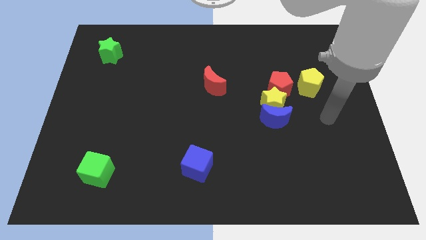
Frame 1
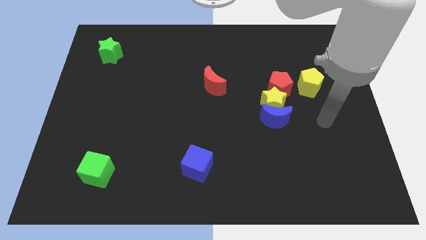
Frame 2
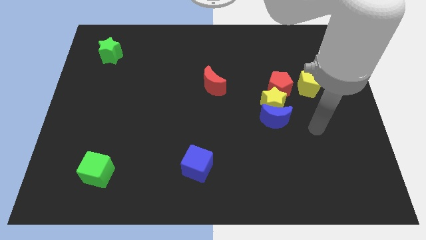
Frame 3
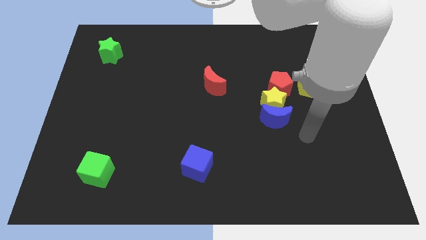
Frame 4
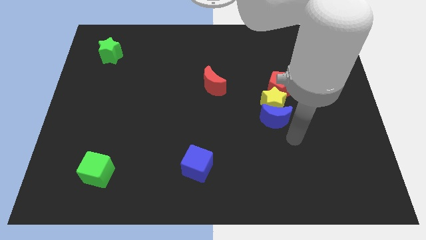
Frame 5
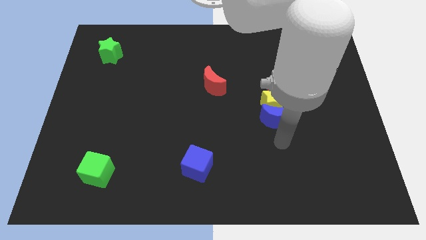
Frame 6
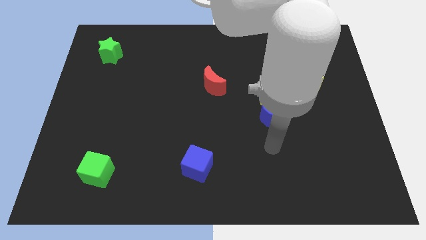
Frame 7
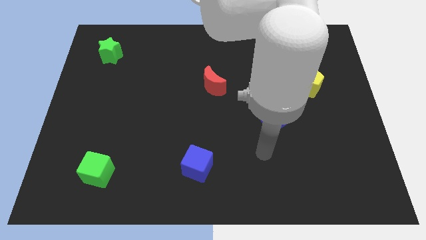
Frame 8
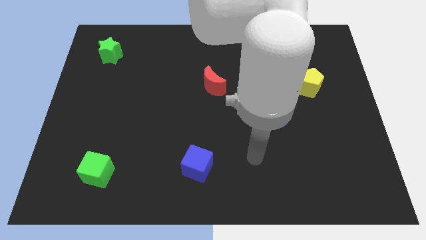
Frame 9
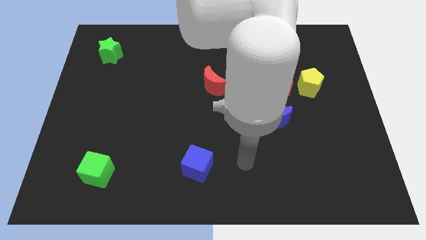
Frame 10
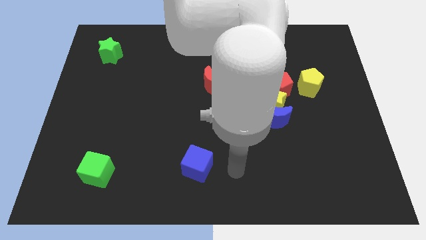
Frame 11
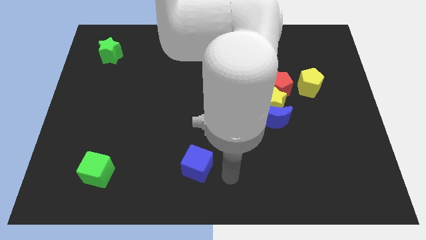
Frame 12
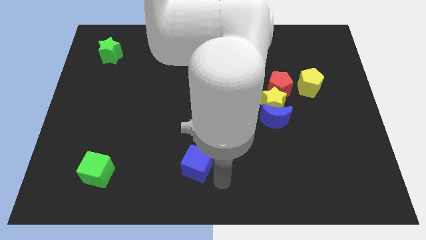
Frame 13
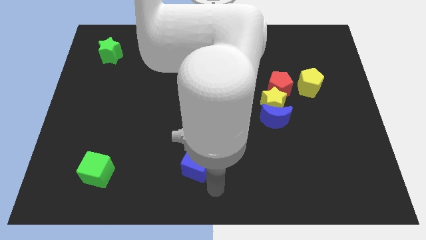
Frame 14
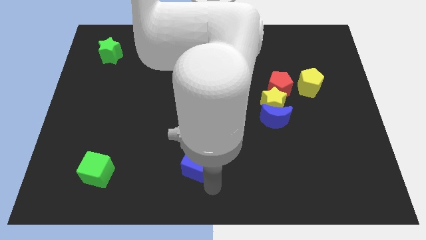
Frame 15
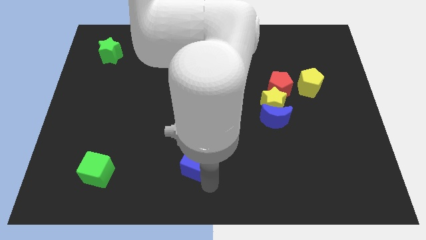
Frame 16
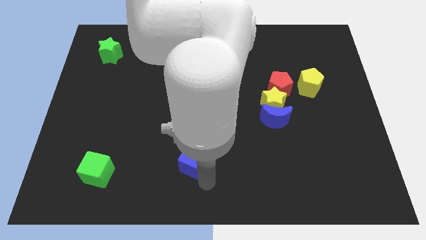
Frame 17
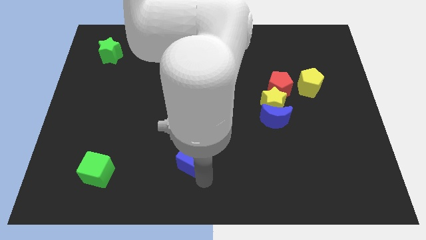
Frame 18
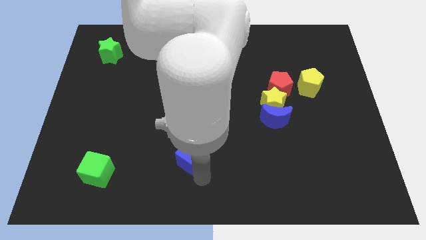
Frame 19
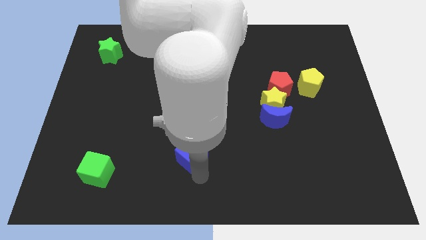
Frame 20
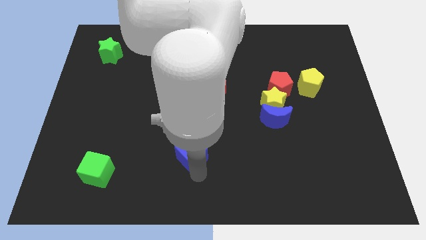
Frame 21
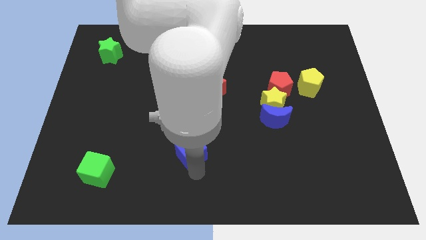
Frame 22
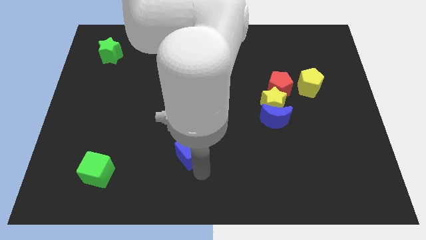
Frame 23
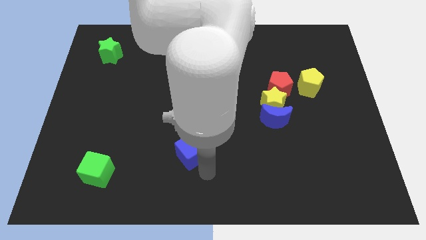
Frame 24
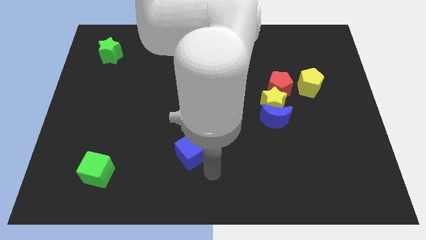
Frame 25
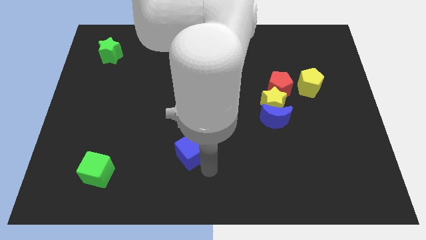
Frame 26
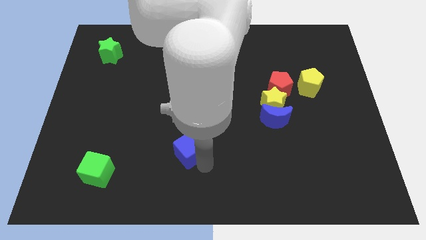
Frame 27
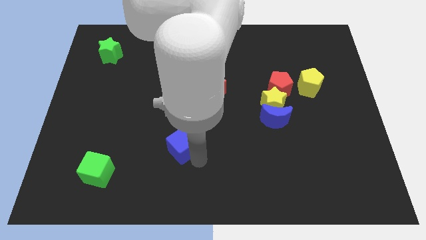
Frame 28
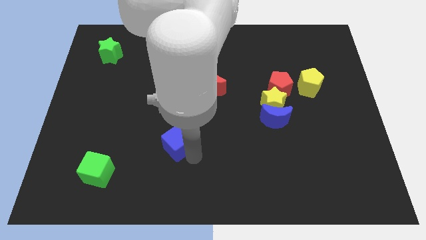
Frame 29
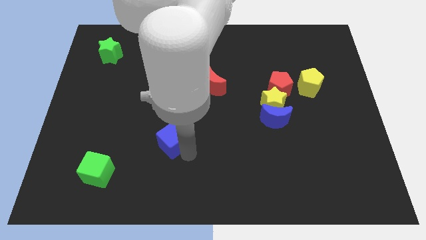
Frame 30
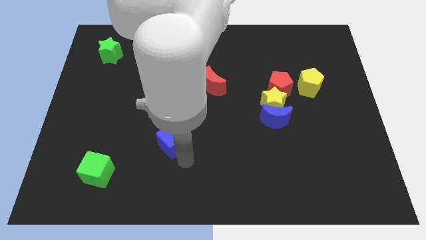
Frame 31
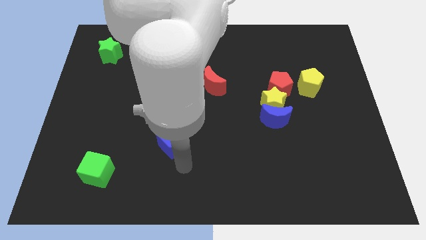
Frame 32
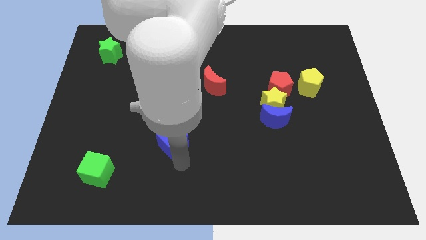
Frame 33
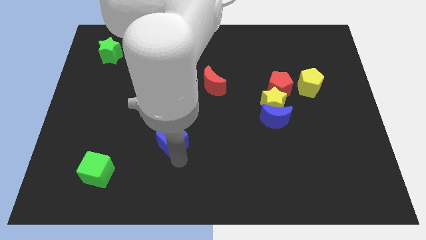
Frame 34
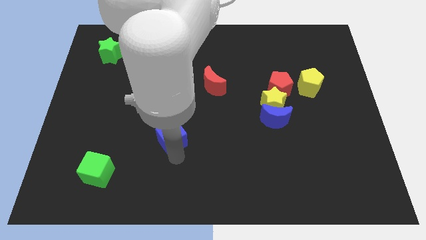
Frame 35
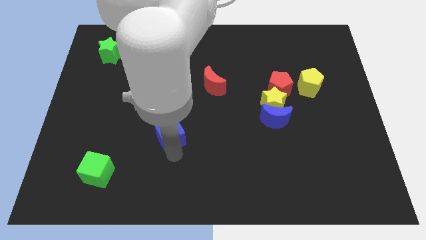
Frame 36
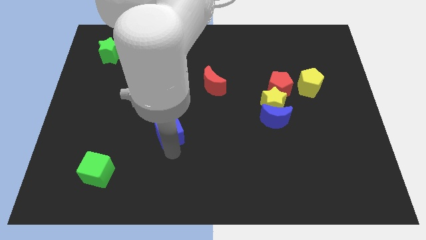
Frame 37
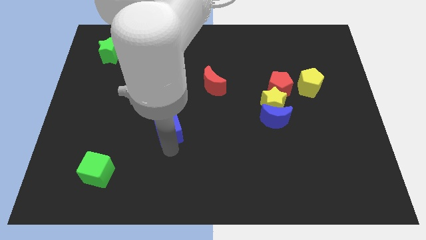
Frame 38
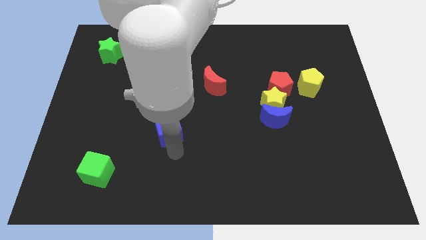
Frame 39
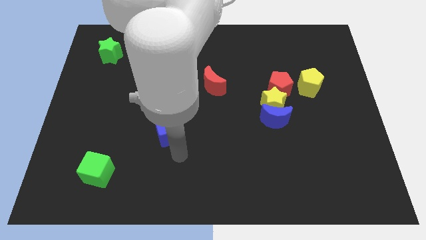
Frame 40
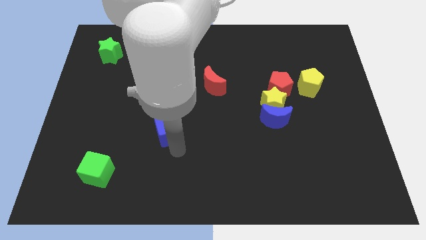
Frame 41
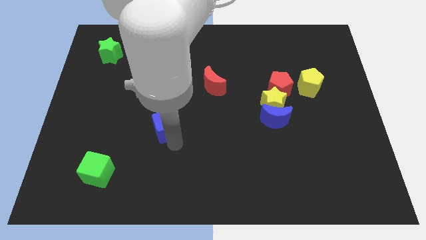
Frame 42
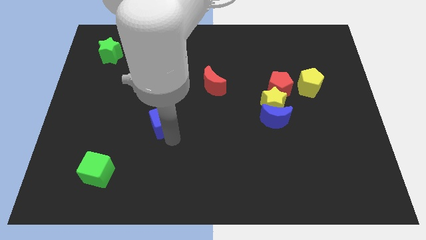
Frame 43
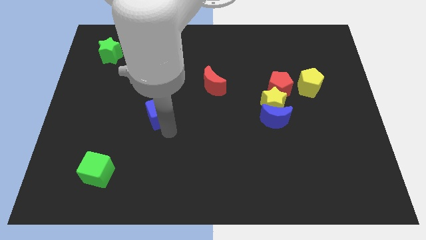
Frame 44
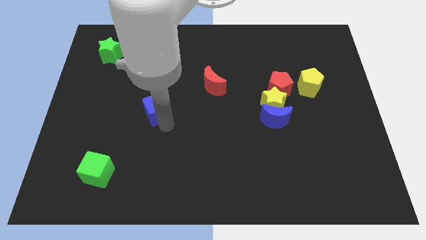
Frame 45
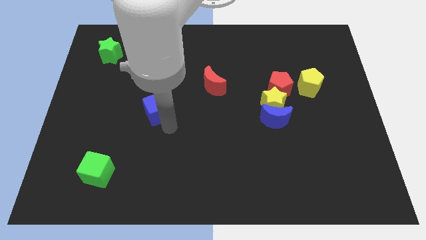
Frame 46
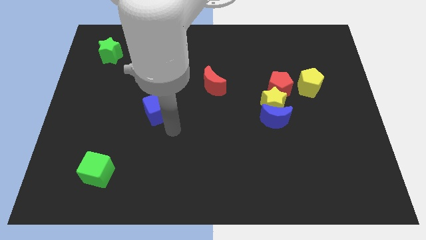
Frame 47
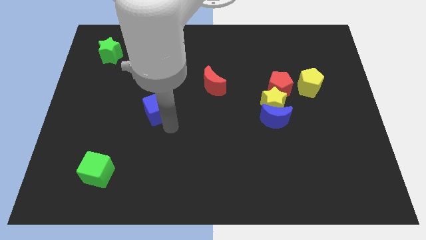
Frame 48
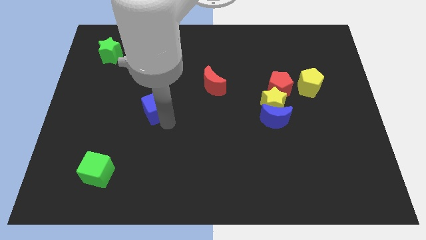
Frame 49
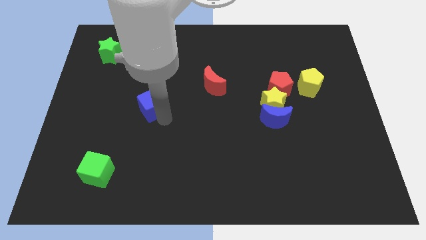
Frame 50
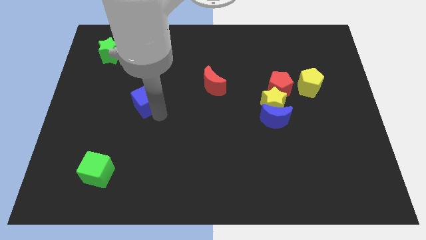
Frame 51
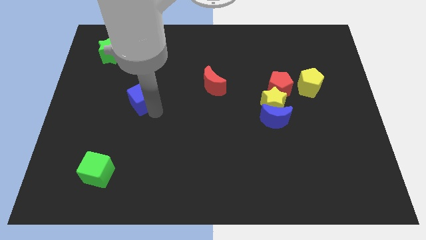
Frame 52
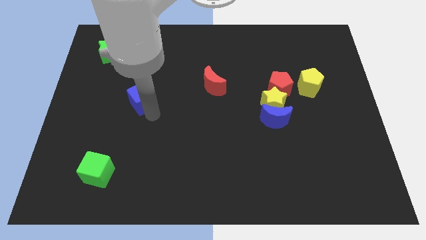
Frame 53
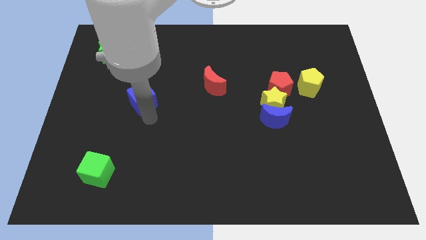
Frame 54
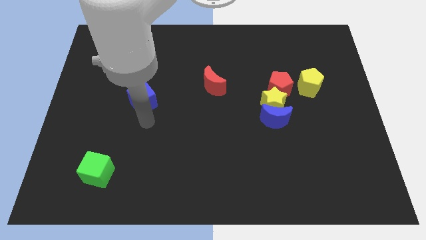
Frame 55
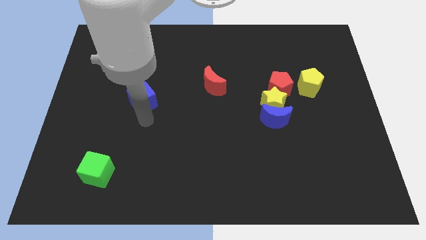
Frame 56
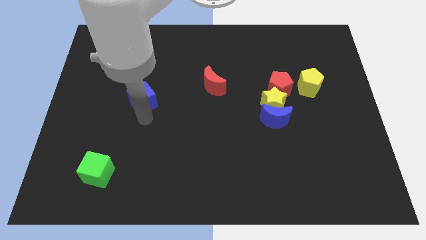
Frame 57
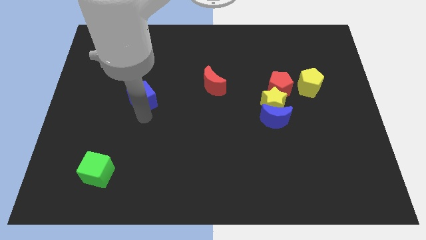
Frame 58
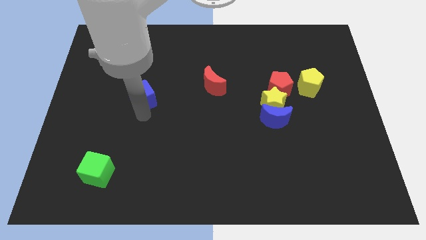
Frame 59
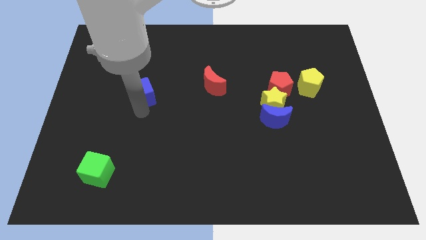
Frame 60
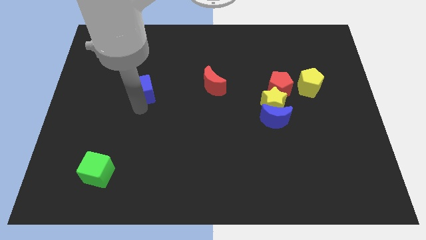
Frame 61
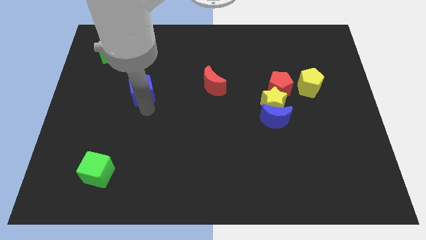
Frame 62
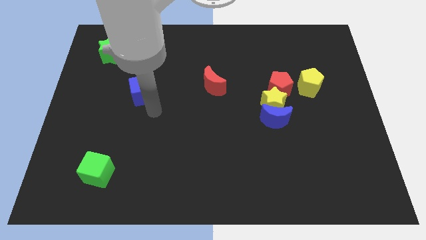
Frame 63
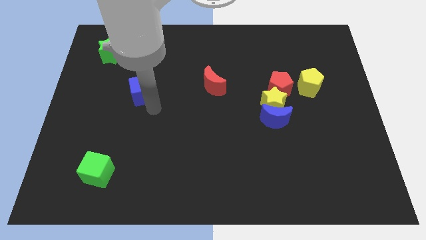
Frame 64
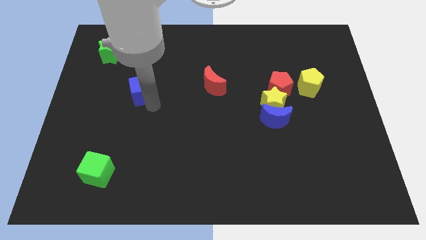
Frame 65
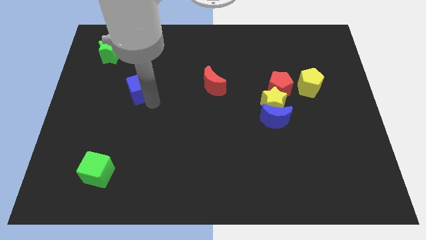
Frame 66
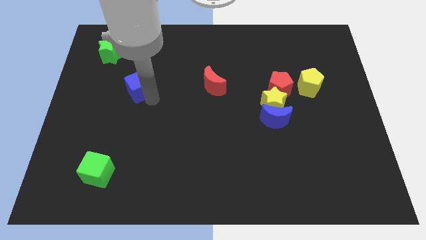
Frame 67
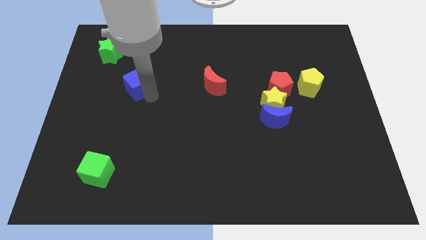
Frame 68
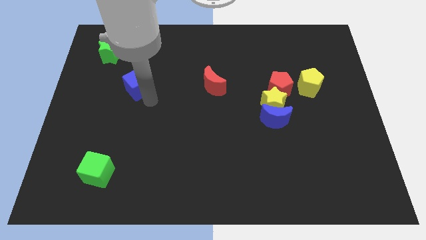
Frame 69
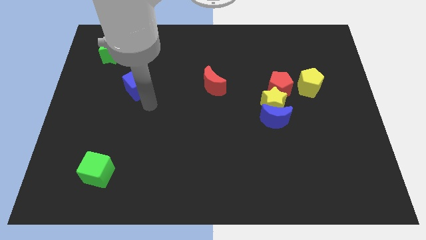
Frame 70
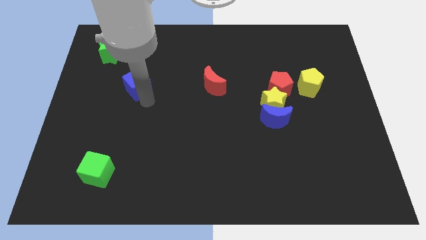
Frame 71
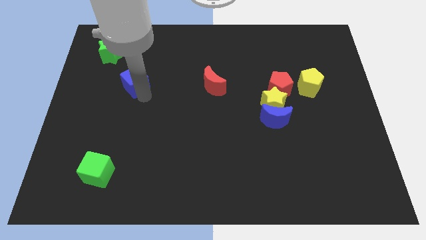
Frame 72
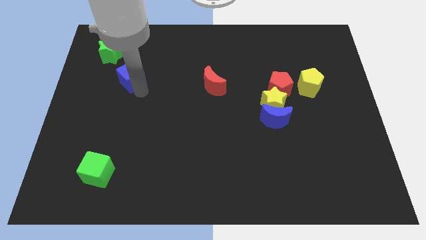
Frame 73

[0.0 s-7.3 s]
move the blue cube to the bottom right of the green star
